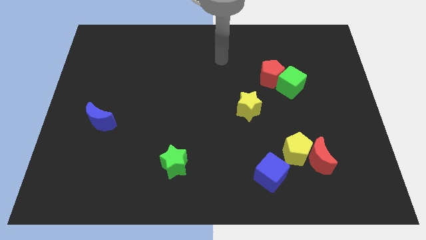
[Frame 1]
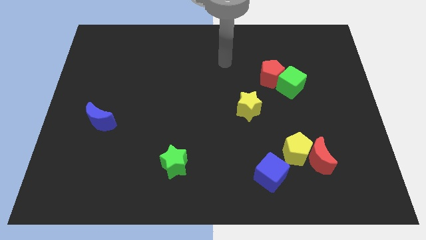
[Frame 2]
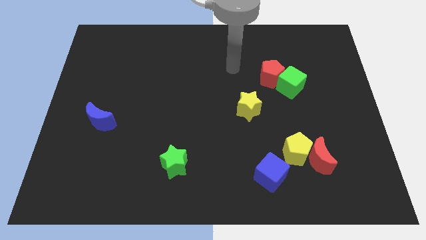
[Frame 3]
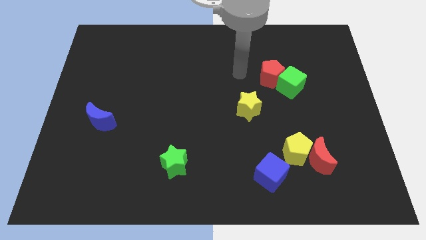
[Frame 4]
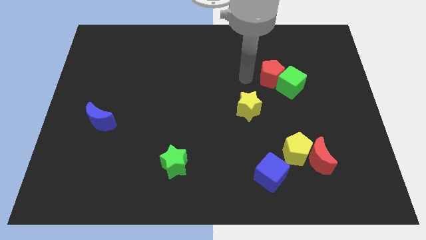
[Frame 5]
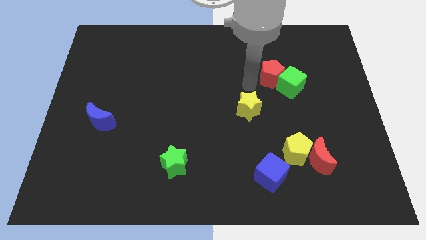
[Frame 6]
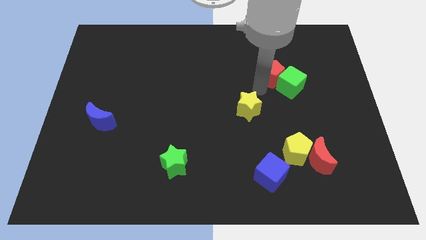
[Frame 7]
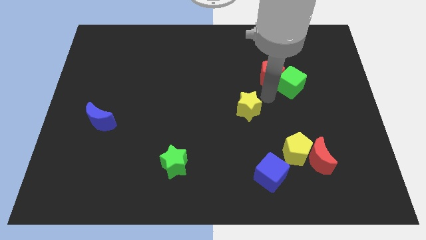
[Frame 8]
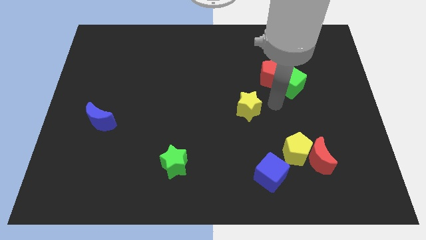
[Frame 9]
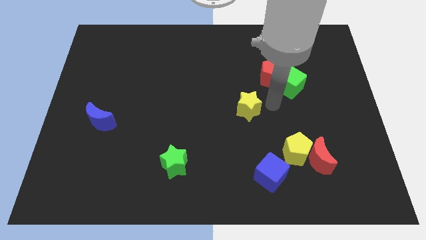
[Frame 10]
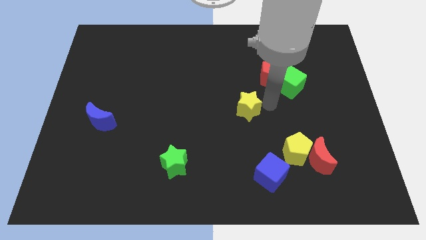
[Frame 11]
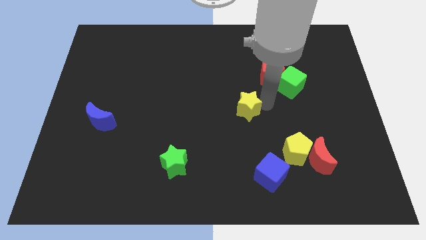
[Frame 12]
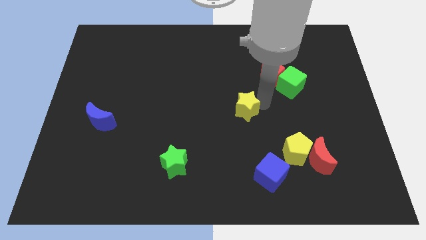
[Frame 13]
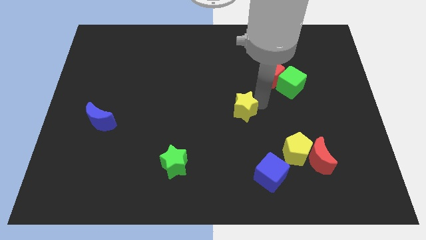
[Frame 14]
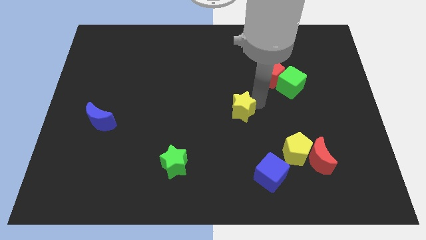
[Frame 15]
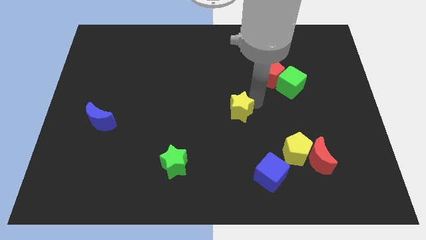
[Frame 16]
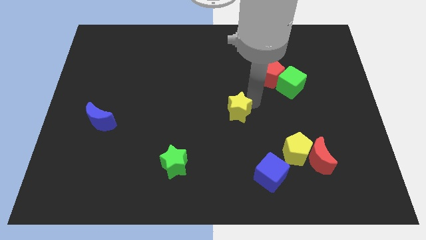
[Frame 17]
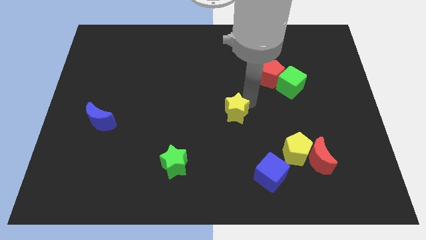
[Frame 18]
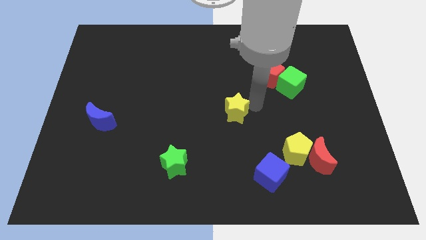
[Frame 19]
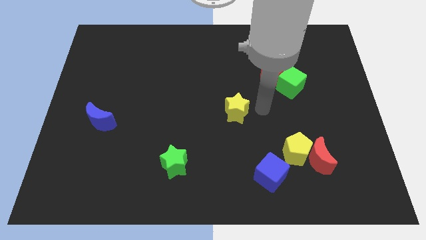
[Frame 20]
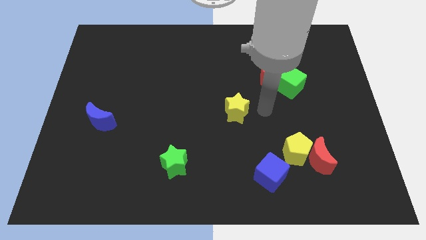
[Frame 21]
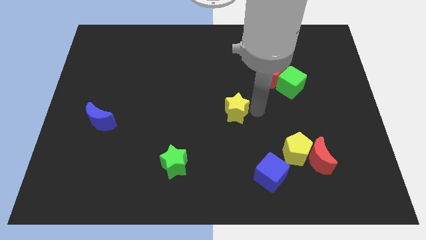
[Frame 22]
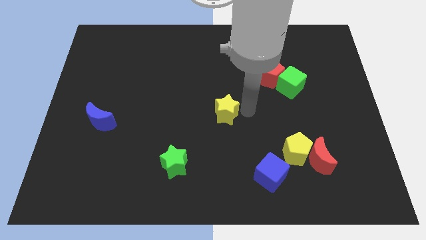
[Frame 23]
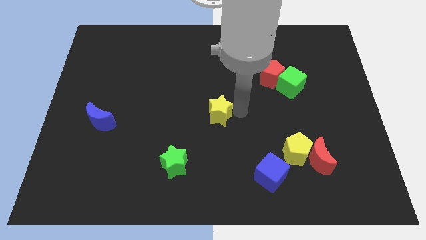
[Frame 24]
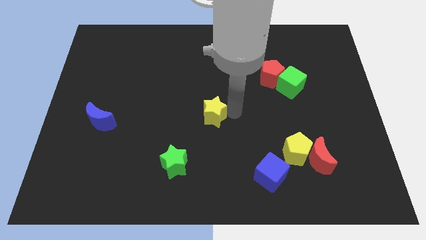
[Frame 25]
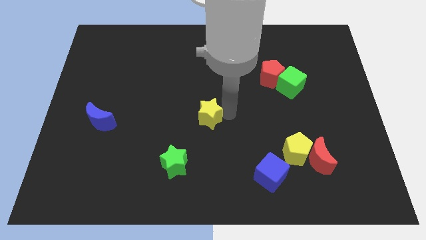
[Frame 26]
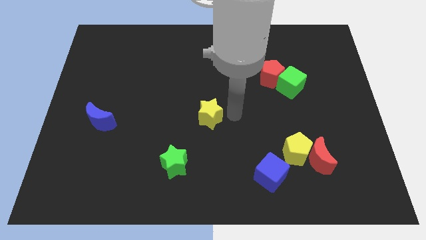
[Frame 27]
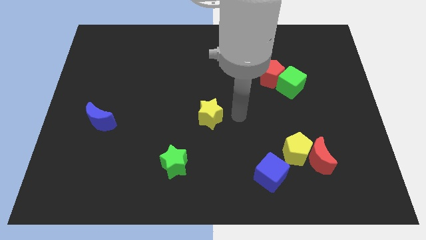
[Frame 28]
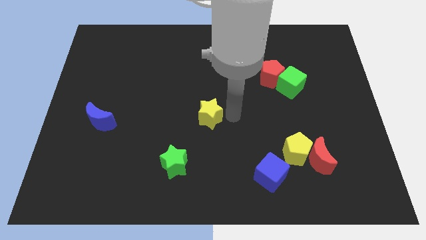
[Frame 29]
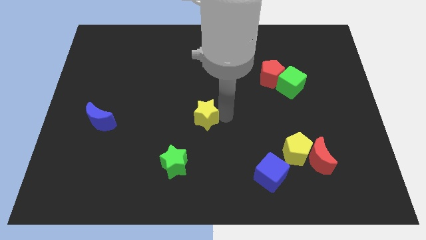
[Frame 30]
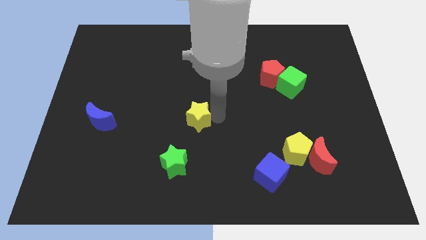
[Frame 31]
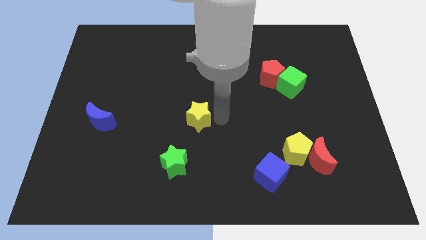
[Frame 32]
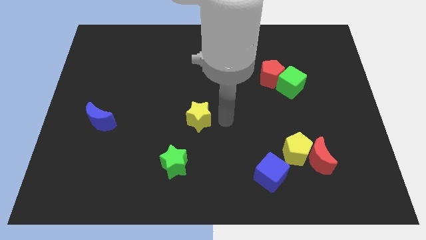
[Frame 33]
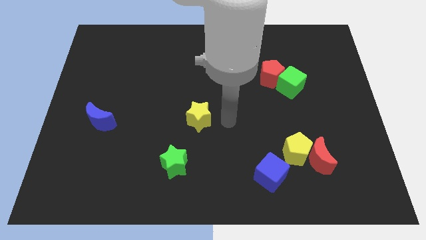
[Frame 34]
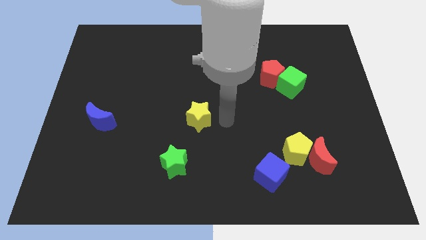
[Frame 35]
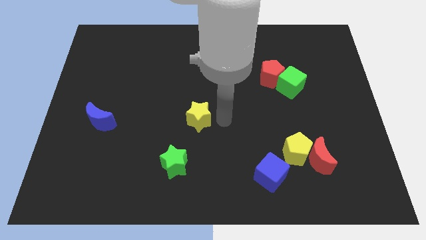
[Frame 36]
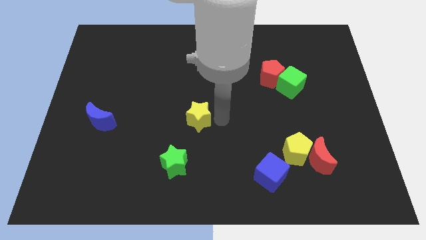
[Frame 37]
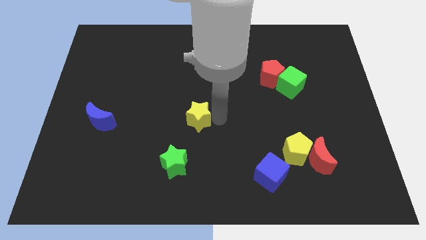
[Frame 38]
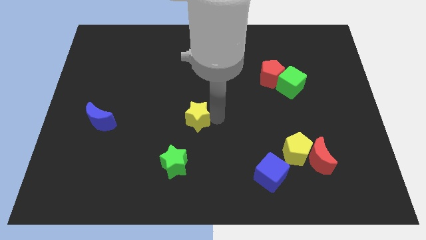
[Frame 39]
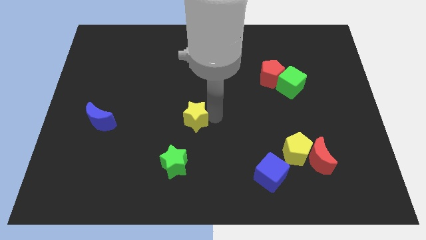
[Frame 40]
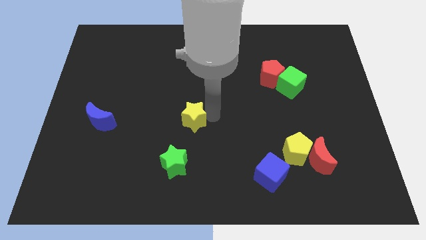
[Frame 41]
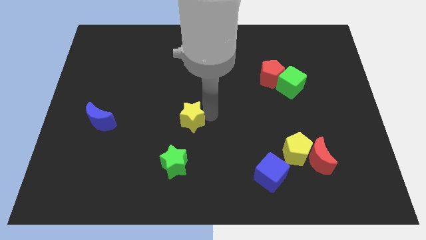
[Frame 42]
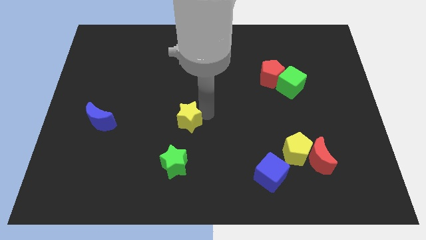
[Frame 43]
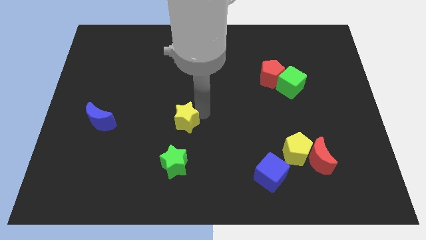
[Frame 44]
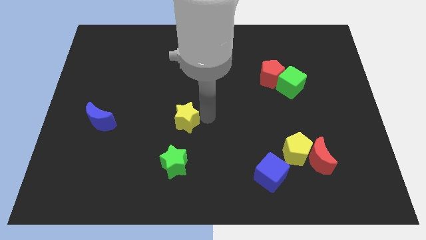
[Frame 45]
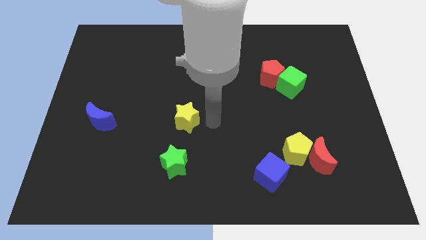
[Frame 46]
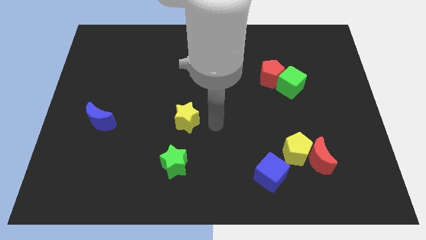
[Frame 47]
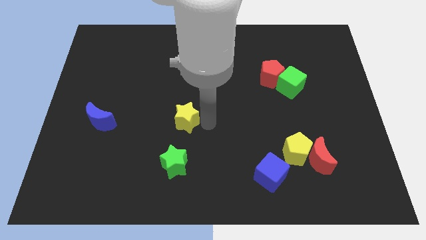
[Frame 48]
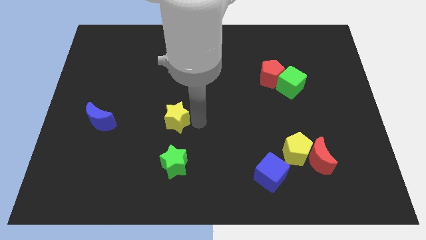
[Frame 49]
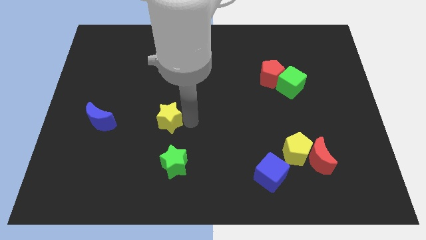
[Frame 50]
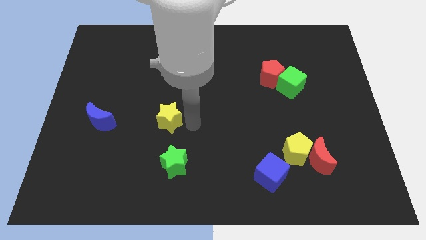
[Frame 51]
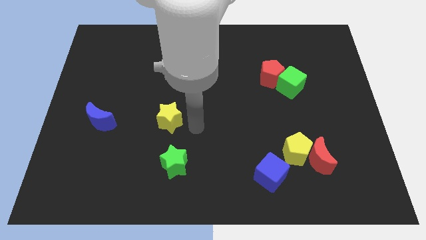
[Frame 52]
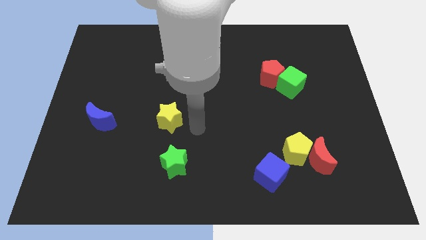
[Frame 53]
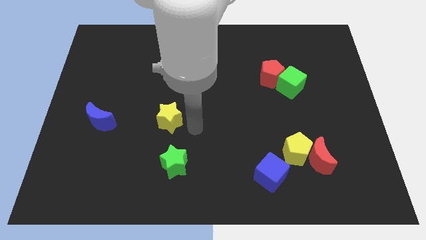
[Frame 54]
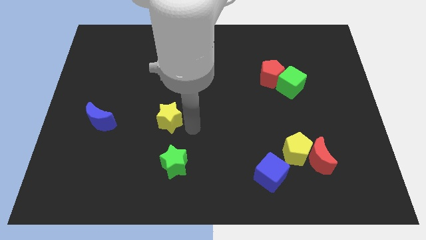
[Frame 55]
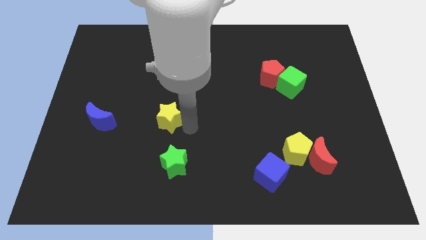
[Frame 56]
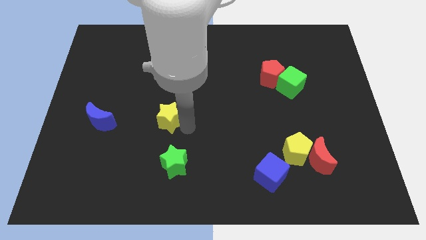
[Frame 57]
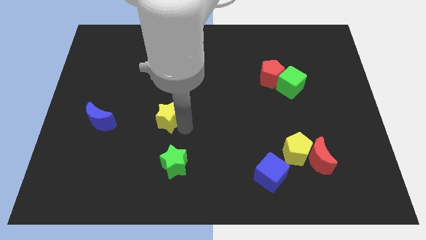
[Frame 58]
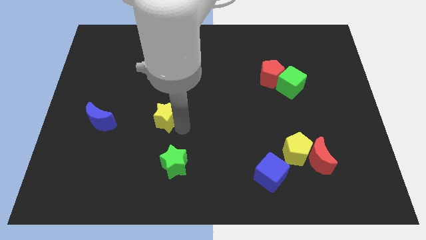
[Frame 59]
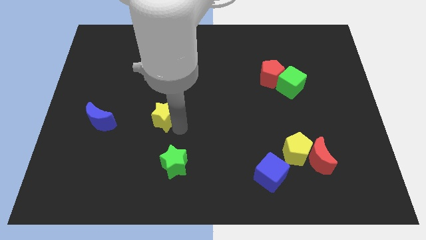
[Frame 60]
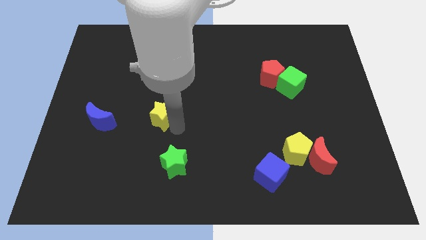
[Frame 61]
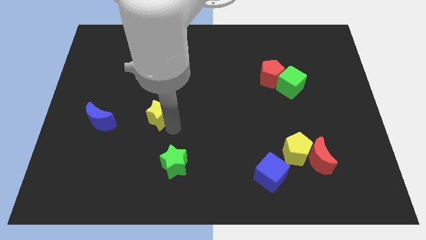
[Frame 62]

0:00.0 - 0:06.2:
push the yellow star to the left

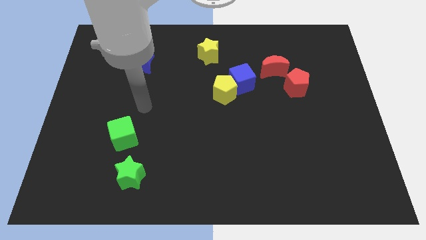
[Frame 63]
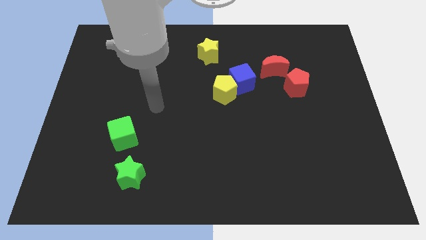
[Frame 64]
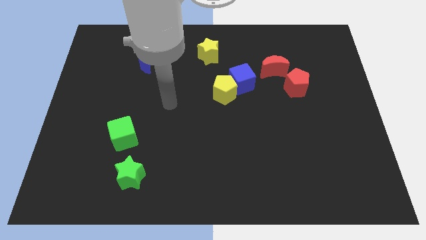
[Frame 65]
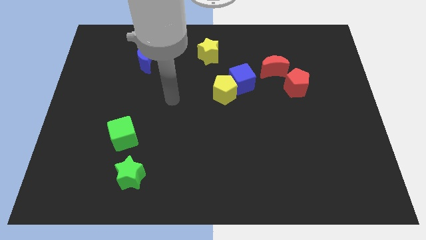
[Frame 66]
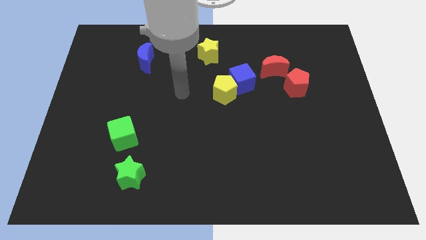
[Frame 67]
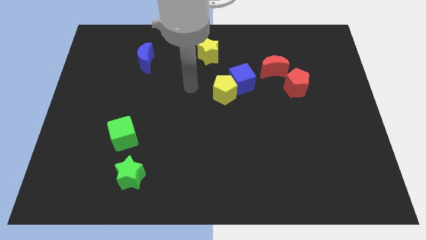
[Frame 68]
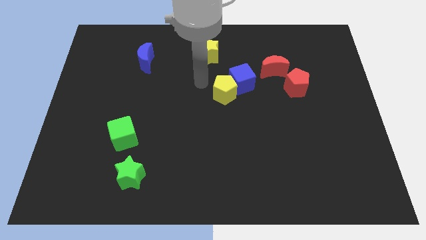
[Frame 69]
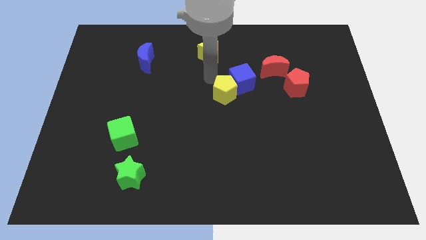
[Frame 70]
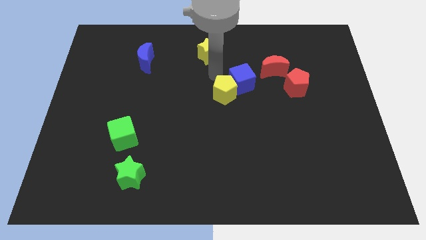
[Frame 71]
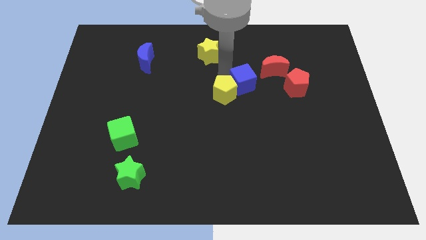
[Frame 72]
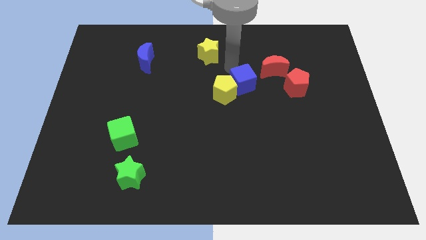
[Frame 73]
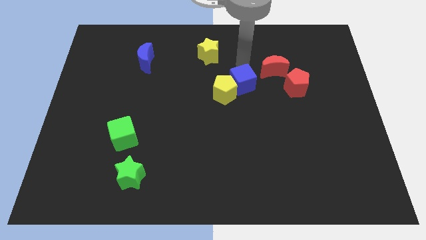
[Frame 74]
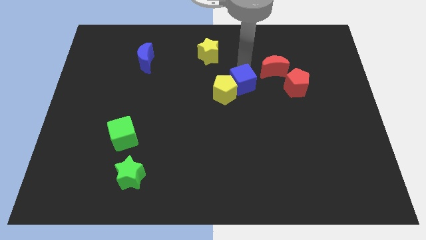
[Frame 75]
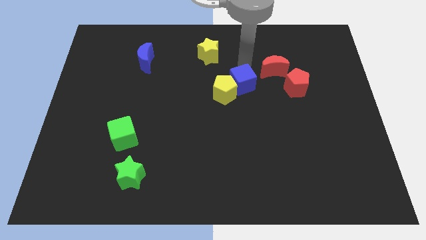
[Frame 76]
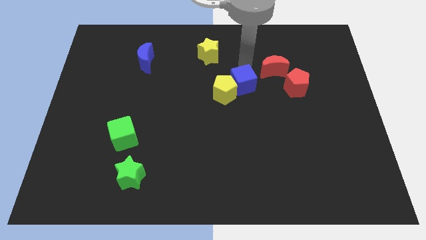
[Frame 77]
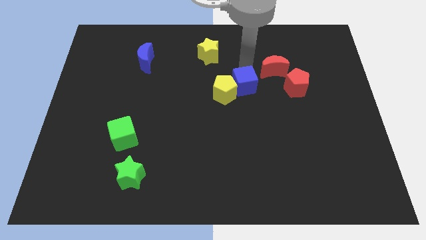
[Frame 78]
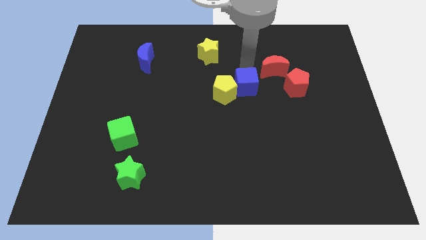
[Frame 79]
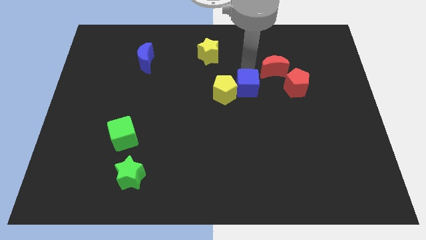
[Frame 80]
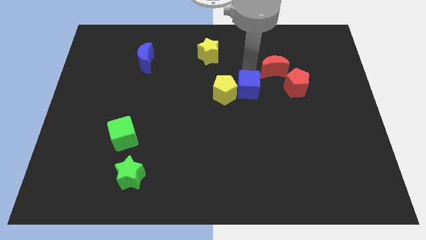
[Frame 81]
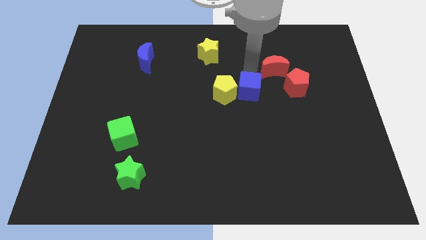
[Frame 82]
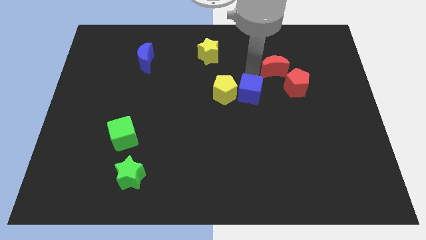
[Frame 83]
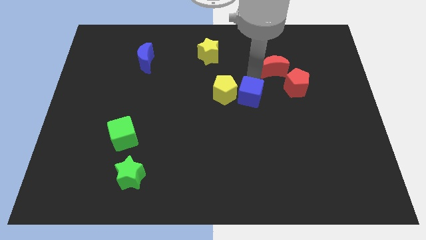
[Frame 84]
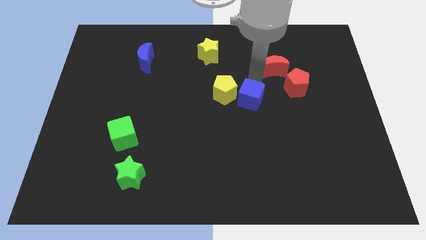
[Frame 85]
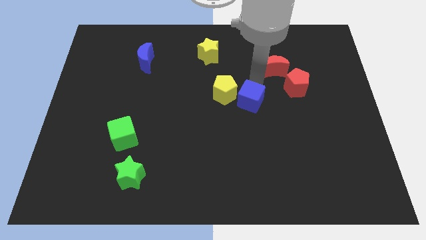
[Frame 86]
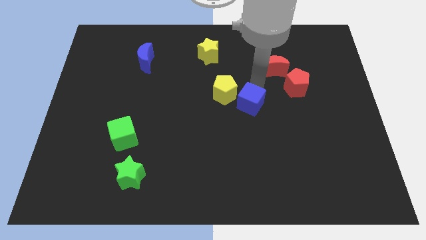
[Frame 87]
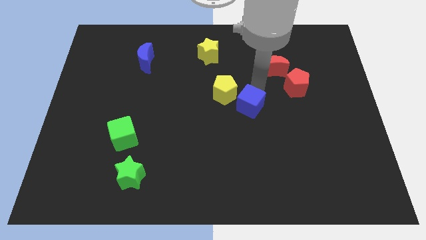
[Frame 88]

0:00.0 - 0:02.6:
move the blue cube a little downwards
